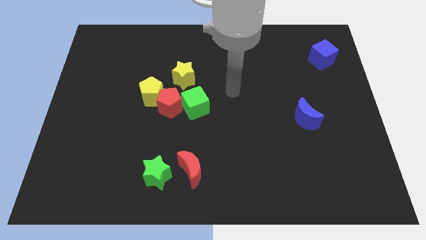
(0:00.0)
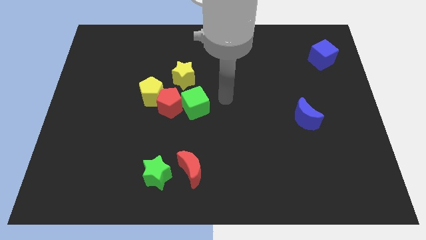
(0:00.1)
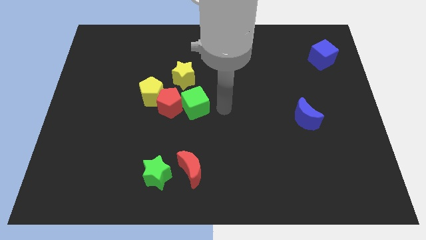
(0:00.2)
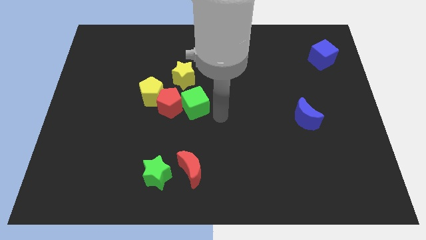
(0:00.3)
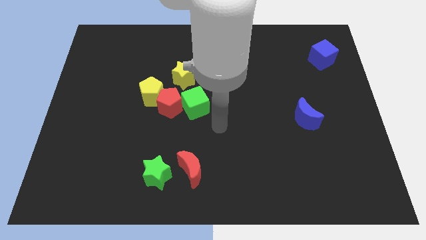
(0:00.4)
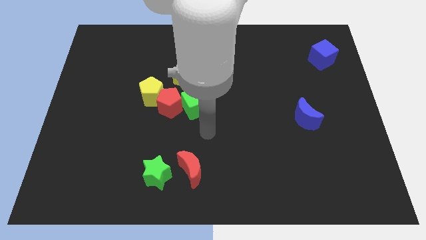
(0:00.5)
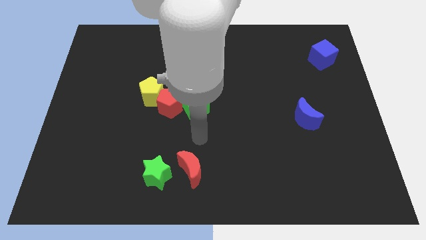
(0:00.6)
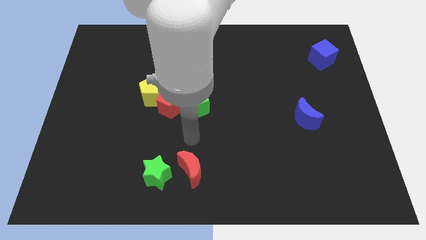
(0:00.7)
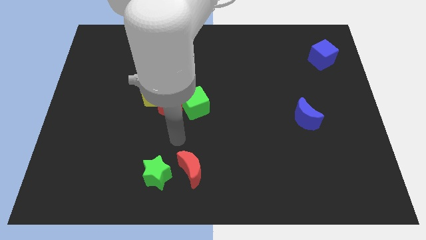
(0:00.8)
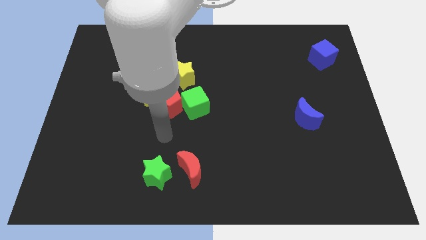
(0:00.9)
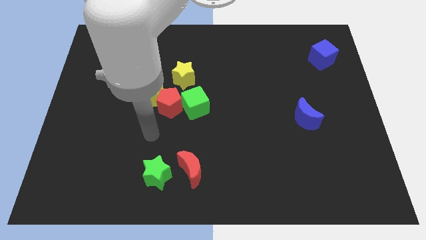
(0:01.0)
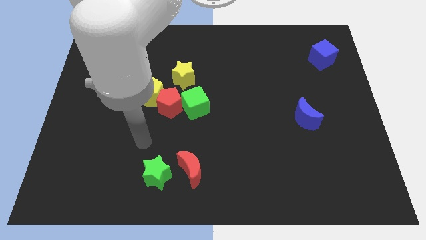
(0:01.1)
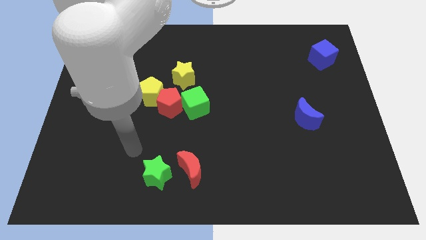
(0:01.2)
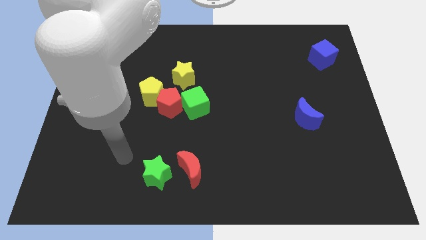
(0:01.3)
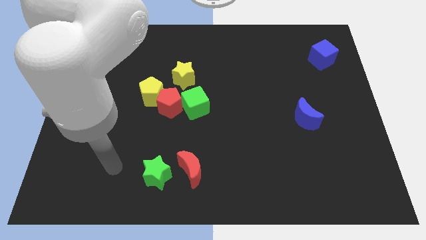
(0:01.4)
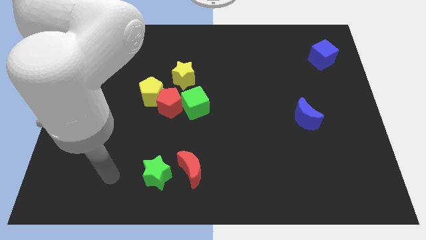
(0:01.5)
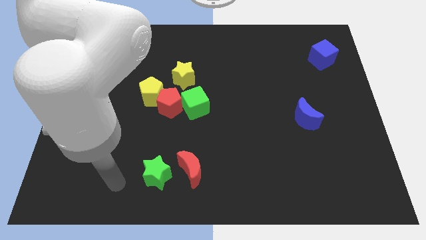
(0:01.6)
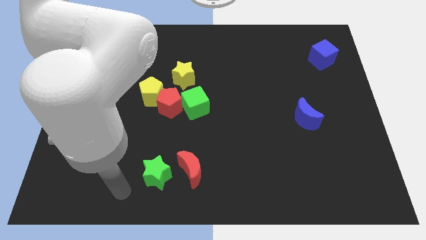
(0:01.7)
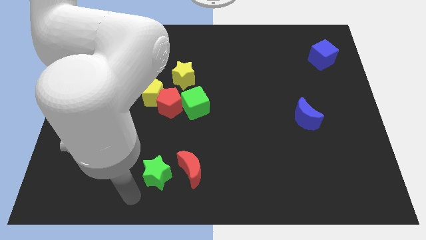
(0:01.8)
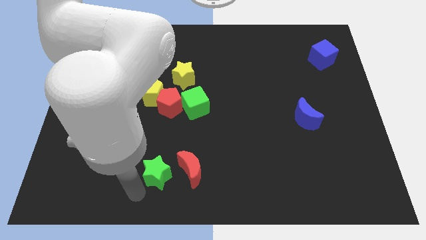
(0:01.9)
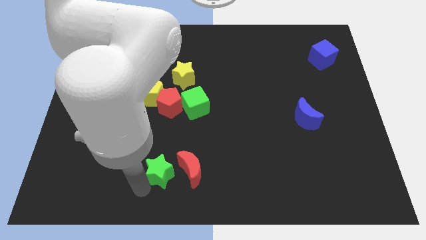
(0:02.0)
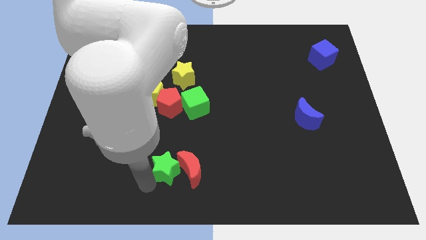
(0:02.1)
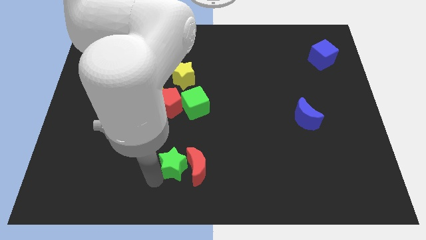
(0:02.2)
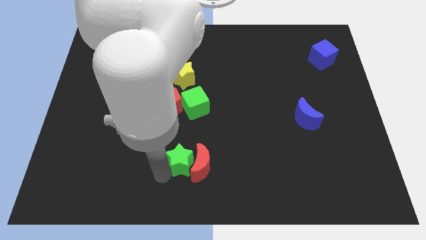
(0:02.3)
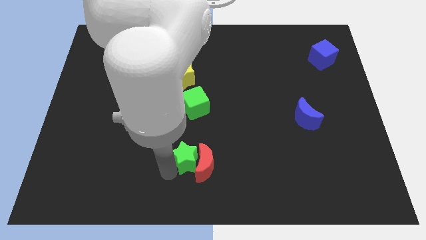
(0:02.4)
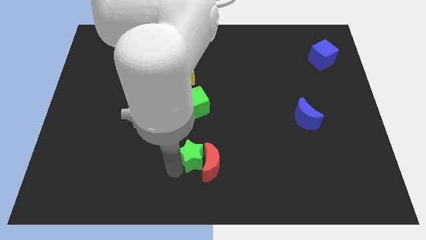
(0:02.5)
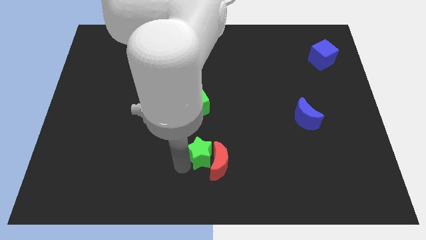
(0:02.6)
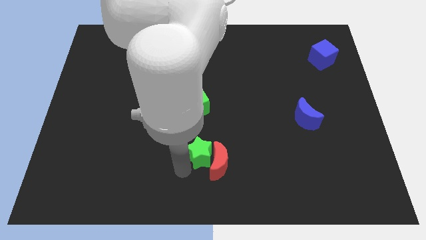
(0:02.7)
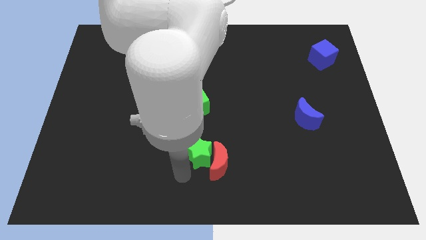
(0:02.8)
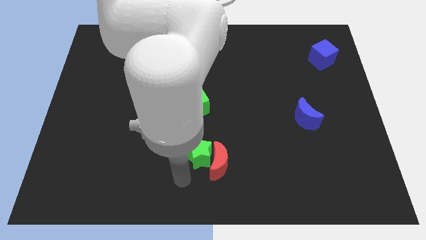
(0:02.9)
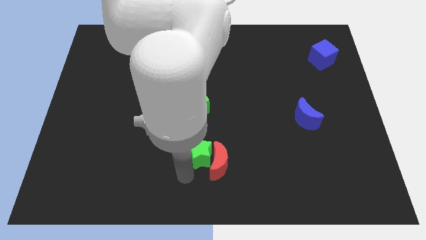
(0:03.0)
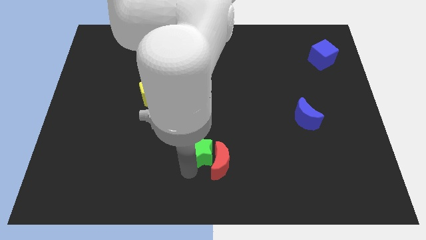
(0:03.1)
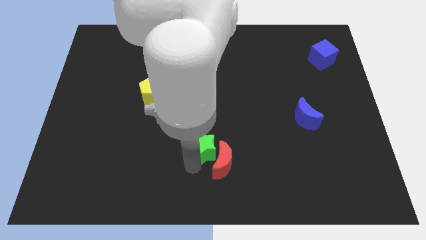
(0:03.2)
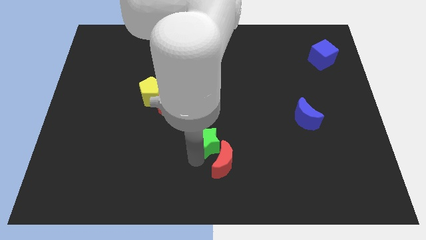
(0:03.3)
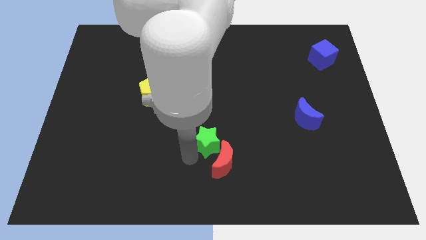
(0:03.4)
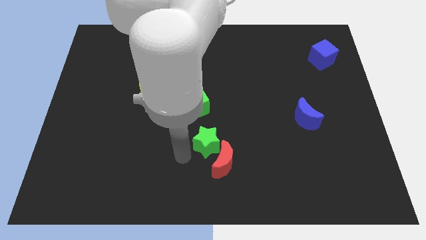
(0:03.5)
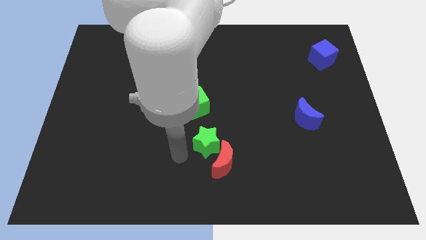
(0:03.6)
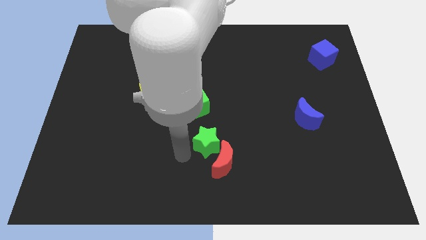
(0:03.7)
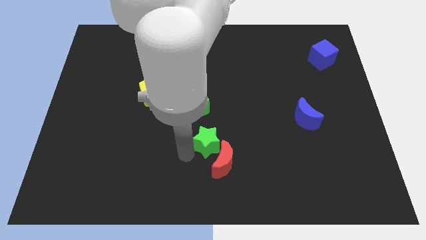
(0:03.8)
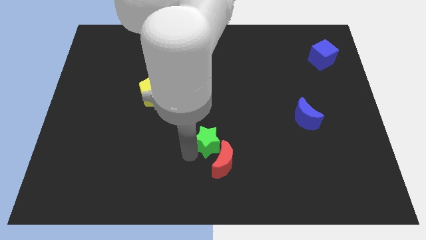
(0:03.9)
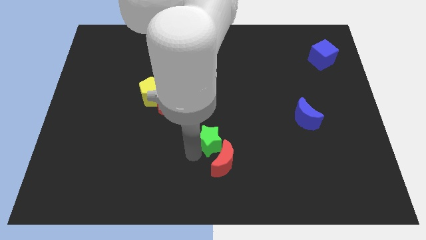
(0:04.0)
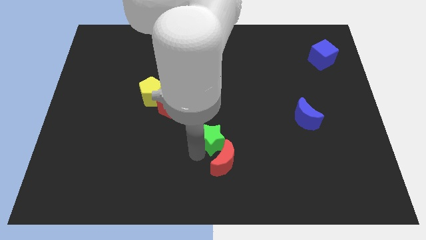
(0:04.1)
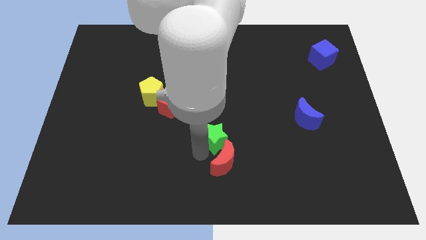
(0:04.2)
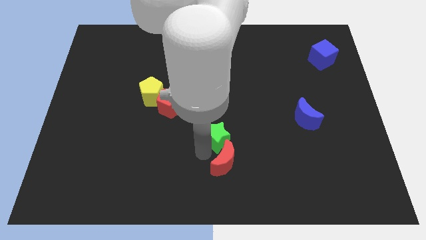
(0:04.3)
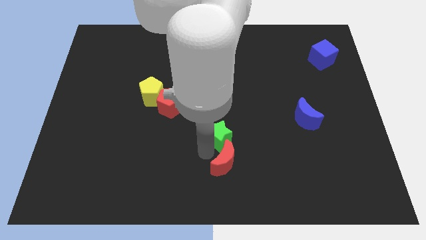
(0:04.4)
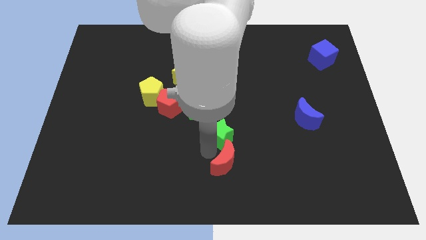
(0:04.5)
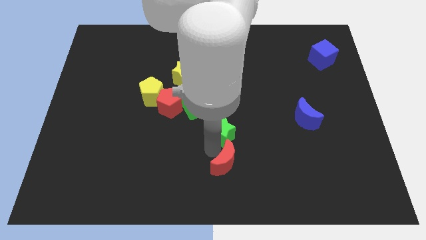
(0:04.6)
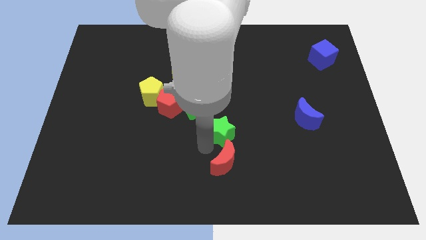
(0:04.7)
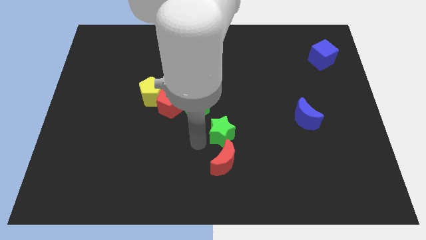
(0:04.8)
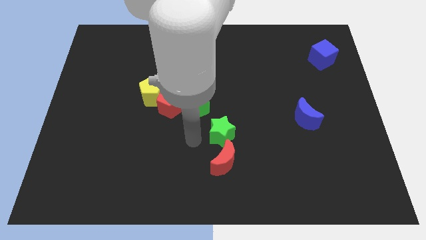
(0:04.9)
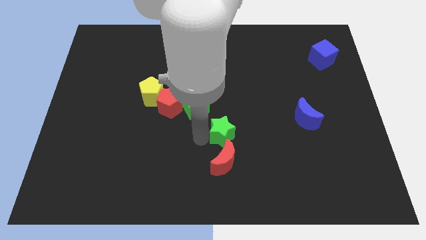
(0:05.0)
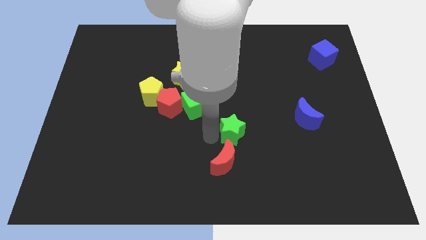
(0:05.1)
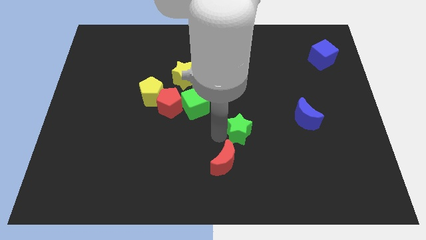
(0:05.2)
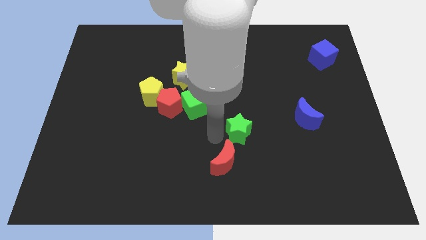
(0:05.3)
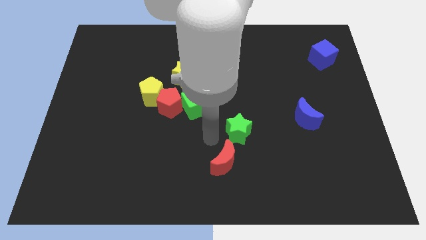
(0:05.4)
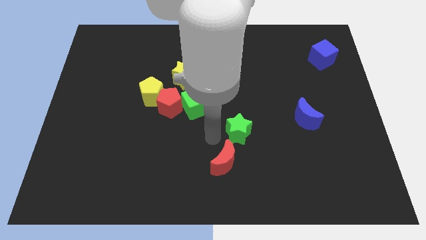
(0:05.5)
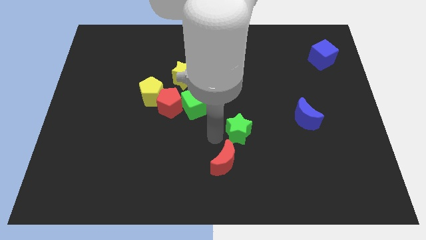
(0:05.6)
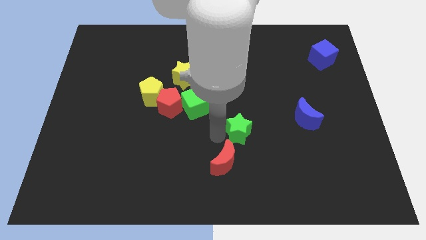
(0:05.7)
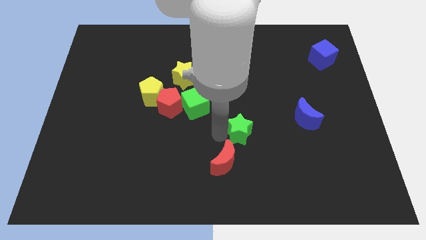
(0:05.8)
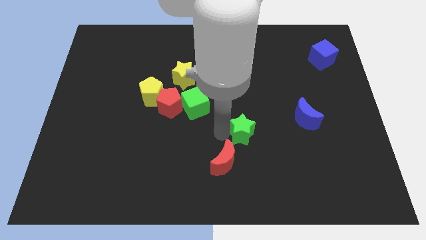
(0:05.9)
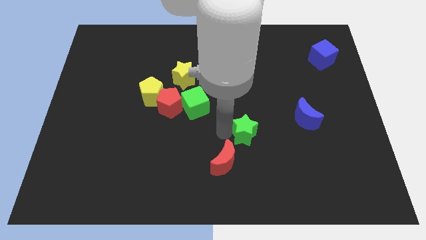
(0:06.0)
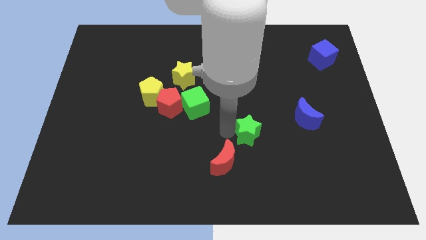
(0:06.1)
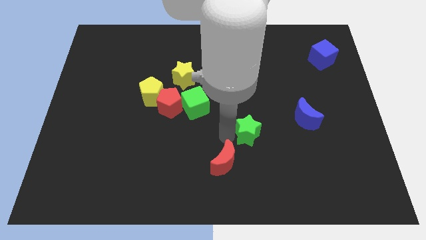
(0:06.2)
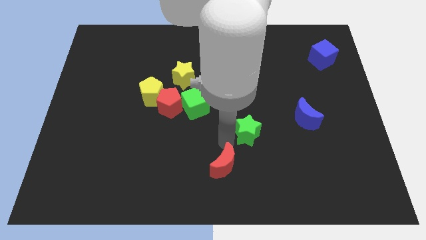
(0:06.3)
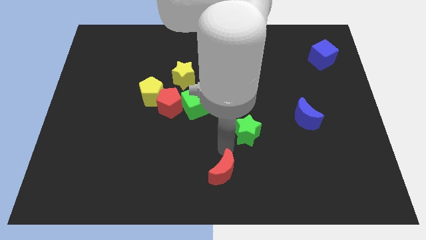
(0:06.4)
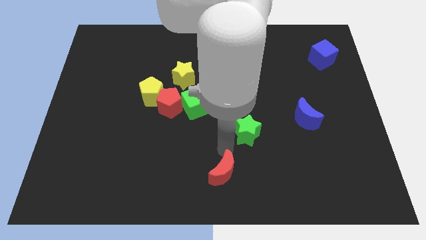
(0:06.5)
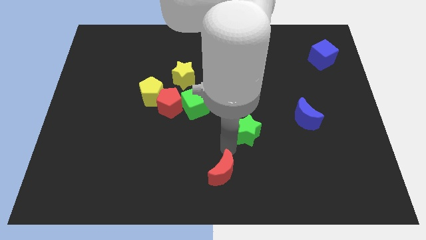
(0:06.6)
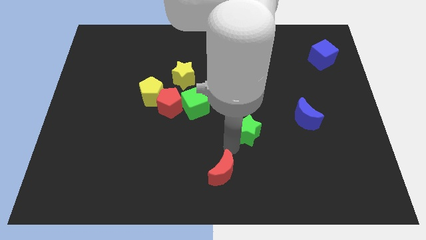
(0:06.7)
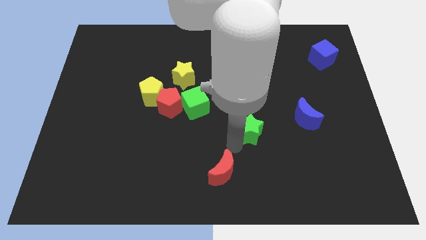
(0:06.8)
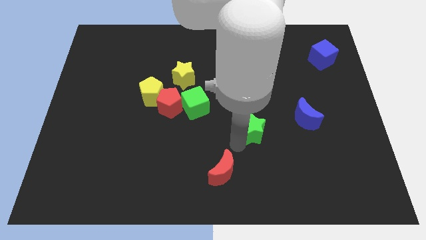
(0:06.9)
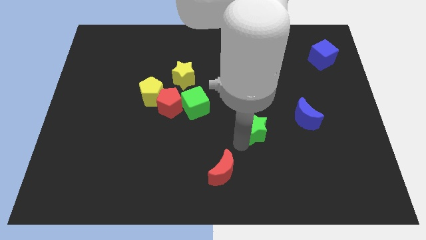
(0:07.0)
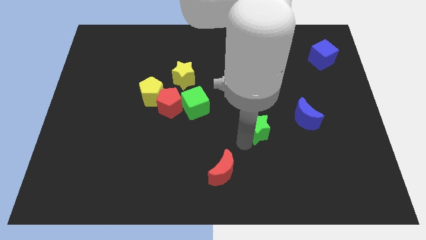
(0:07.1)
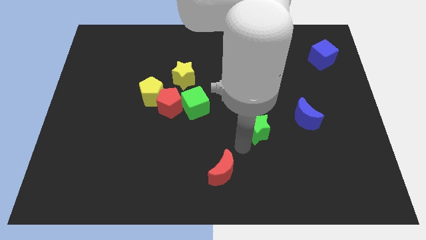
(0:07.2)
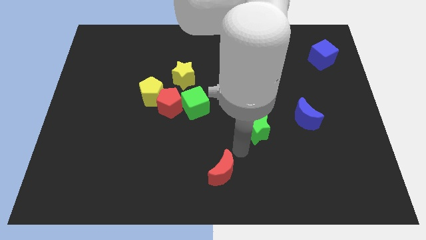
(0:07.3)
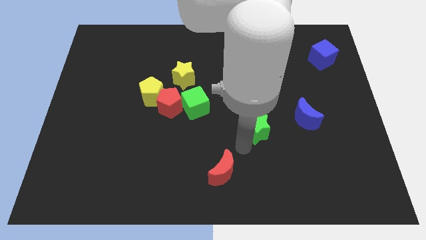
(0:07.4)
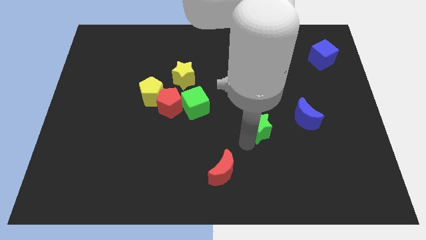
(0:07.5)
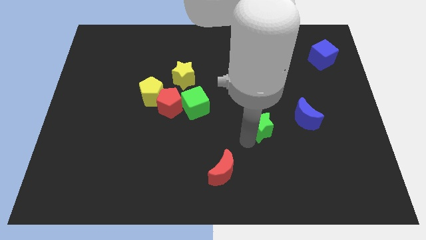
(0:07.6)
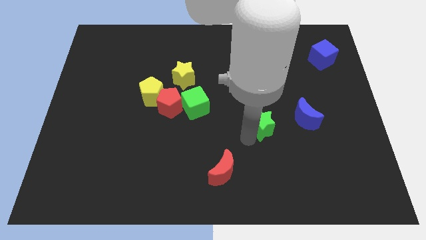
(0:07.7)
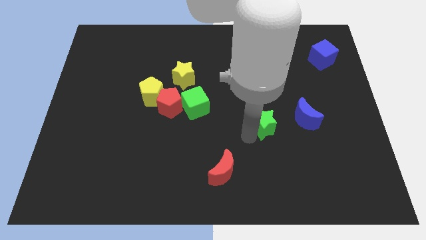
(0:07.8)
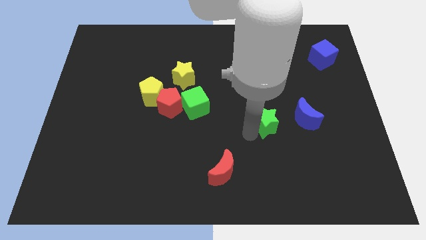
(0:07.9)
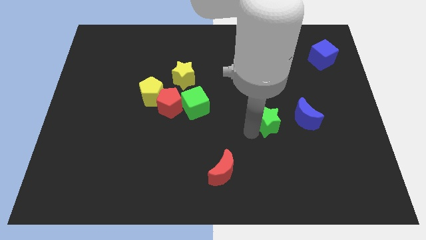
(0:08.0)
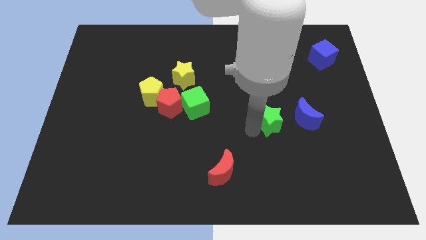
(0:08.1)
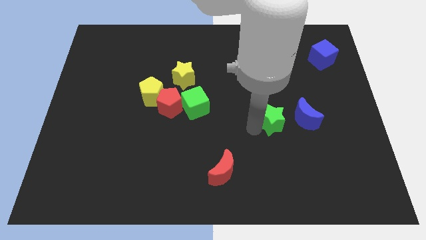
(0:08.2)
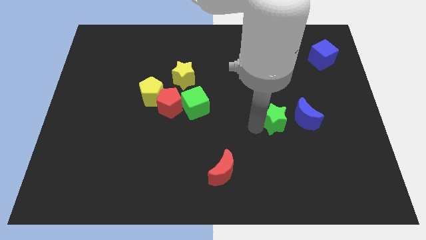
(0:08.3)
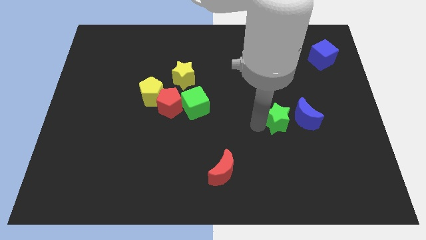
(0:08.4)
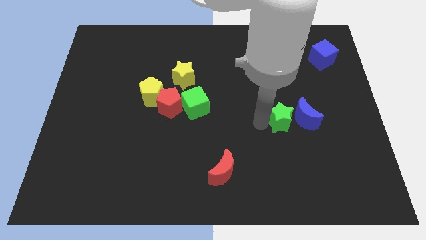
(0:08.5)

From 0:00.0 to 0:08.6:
move the green star to the blue moon
